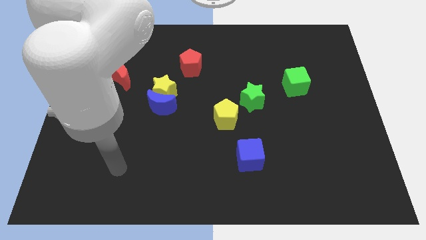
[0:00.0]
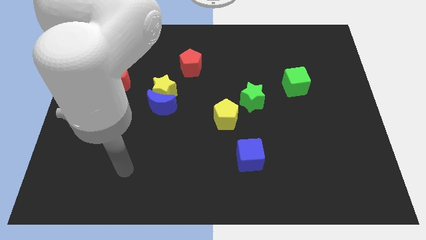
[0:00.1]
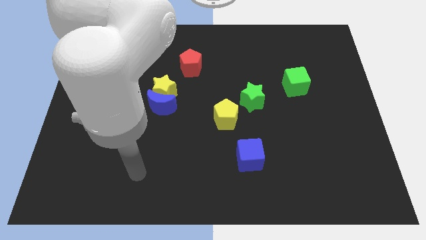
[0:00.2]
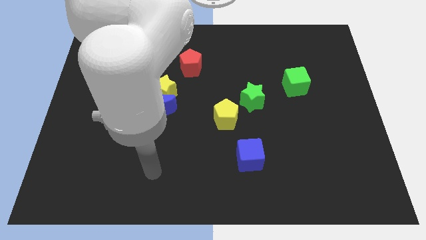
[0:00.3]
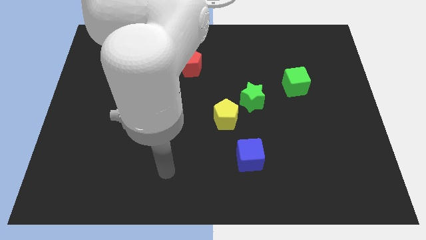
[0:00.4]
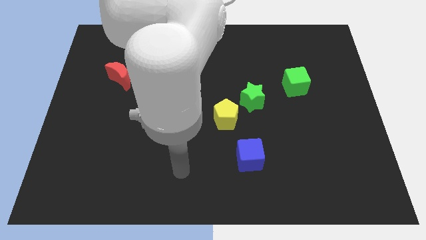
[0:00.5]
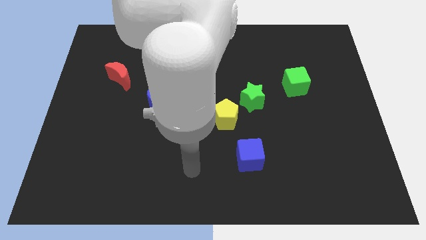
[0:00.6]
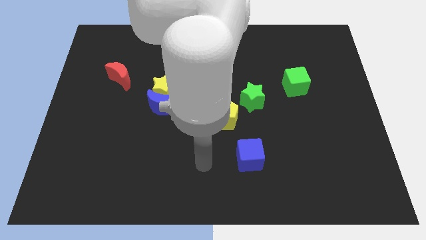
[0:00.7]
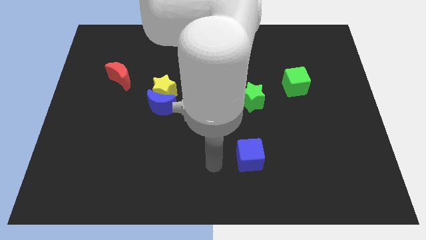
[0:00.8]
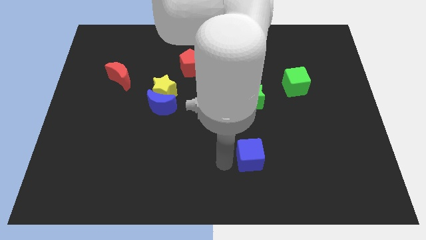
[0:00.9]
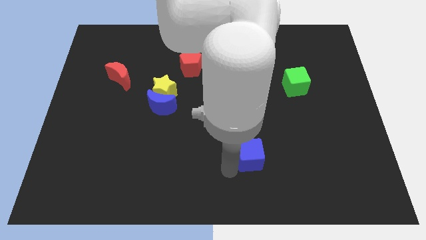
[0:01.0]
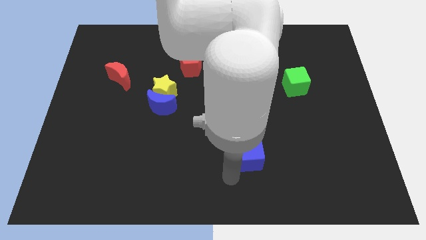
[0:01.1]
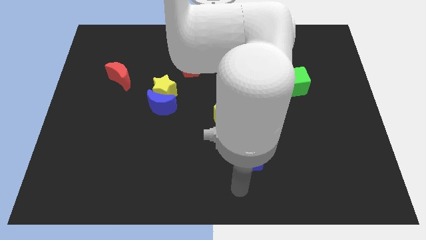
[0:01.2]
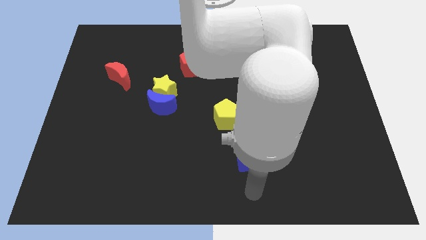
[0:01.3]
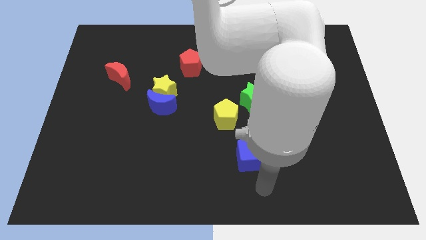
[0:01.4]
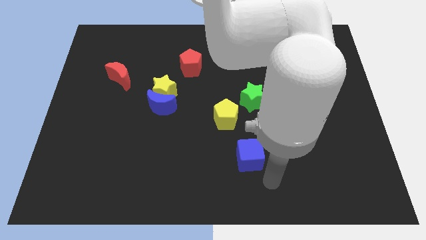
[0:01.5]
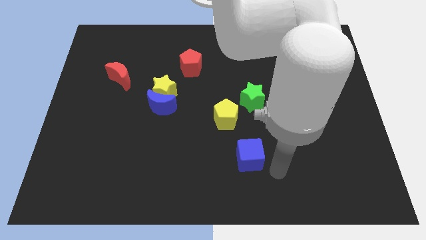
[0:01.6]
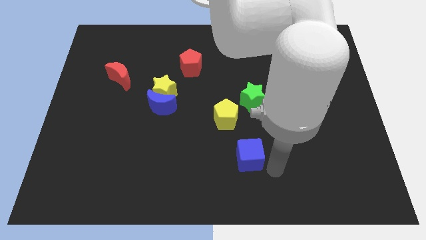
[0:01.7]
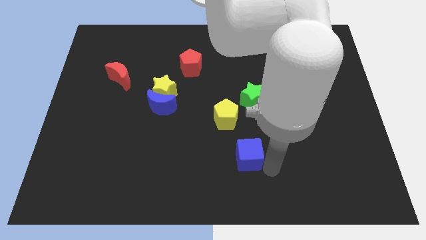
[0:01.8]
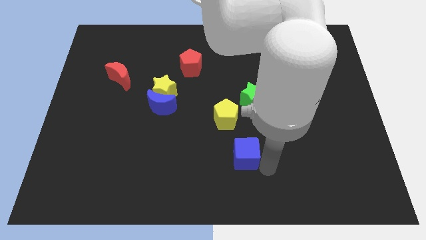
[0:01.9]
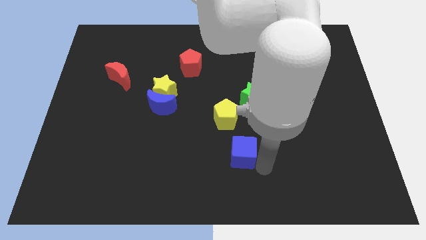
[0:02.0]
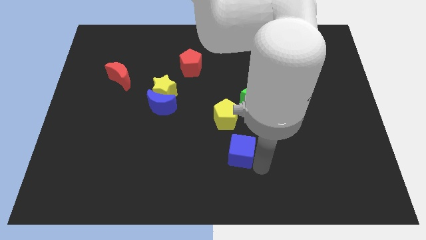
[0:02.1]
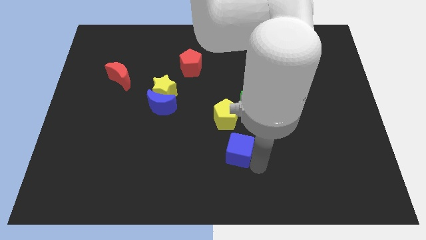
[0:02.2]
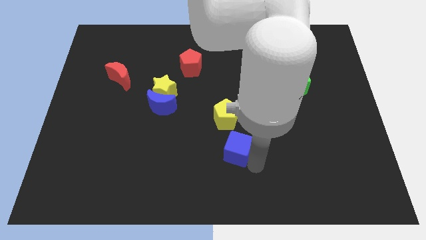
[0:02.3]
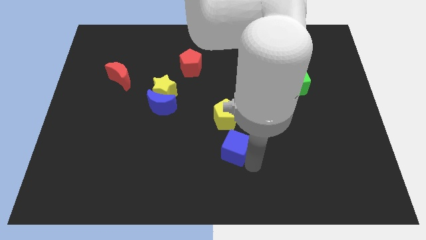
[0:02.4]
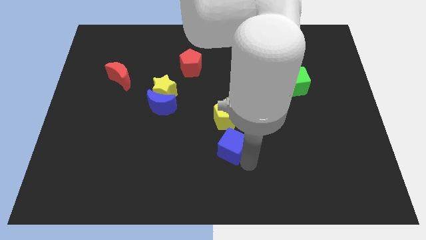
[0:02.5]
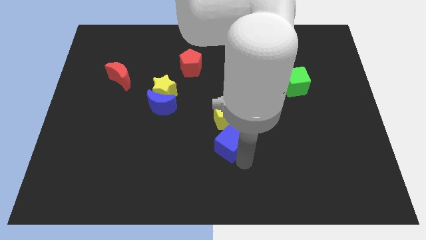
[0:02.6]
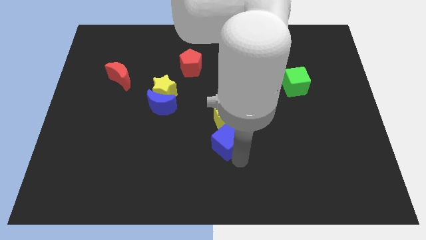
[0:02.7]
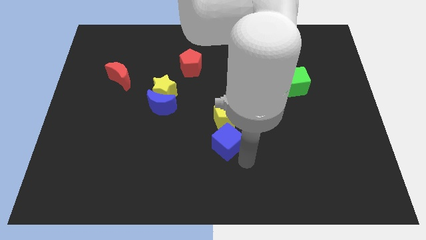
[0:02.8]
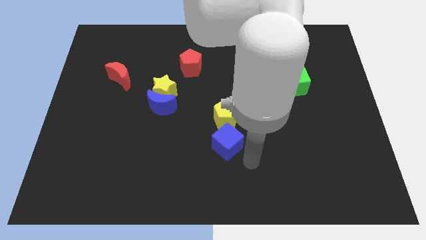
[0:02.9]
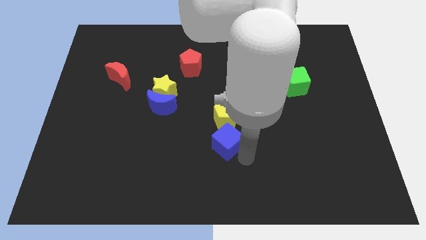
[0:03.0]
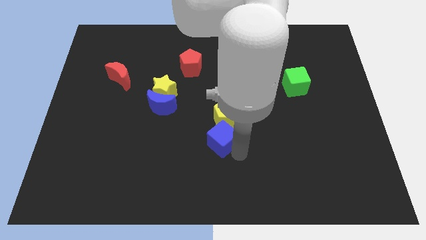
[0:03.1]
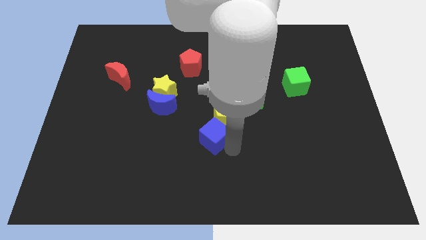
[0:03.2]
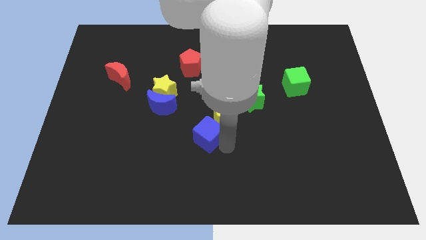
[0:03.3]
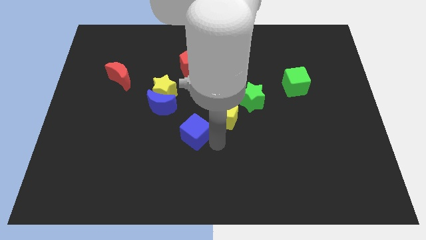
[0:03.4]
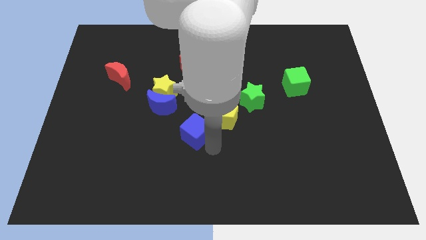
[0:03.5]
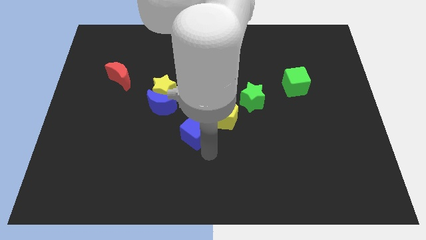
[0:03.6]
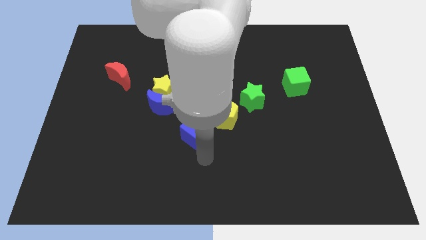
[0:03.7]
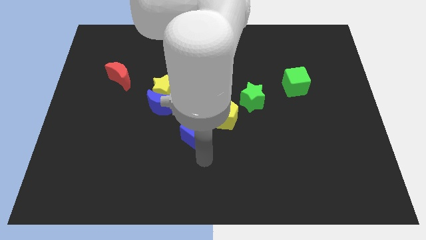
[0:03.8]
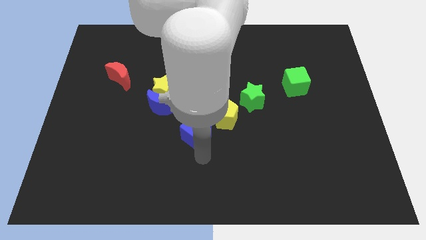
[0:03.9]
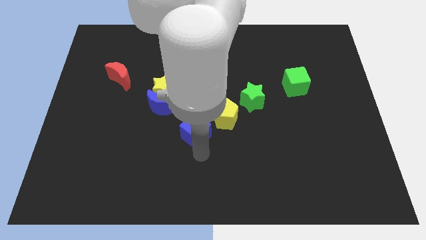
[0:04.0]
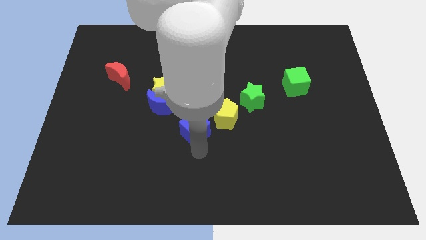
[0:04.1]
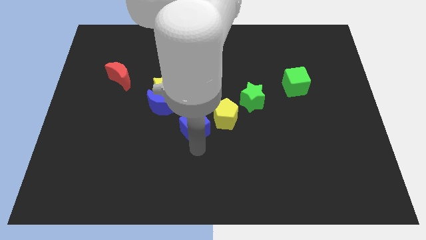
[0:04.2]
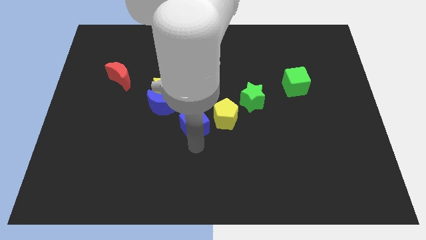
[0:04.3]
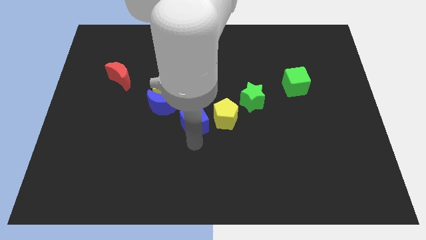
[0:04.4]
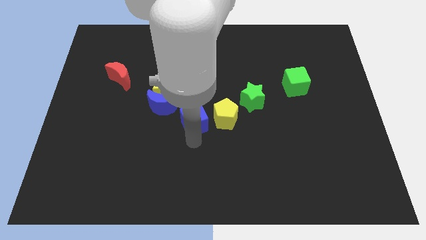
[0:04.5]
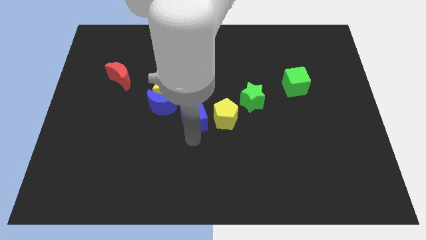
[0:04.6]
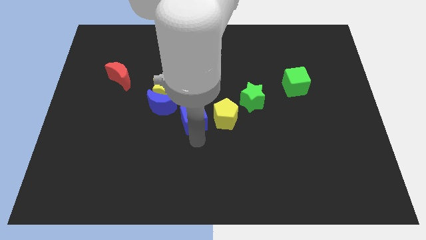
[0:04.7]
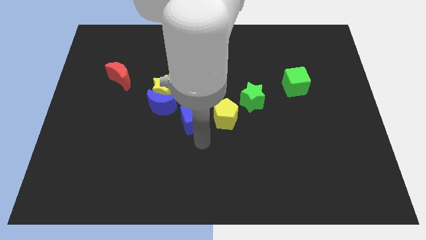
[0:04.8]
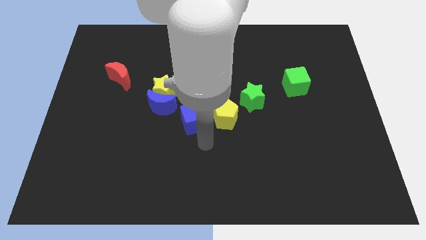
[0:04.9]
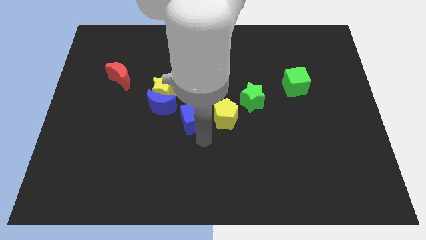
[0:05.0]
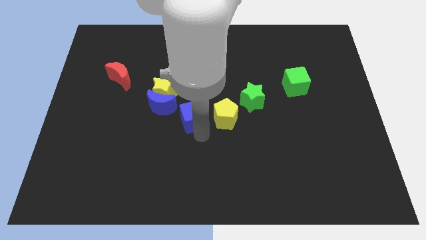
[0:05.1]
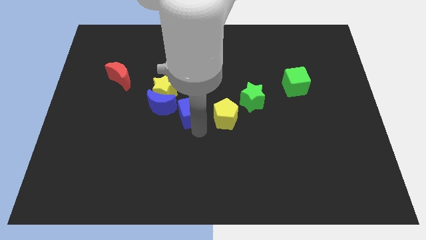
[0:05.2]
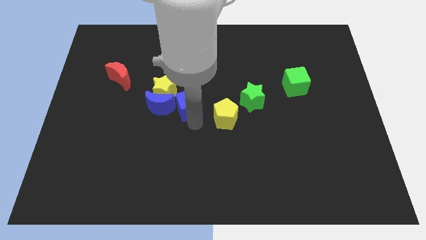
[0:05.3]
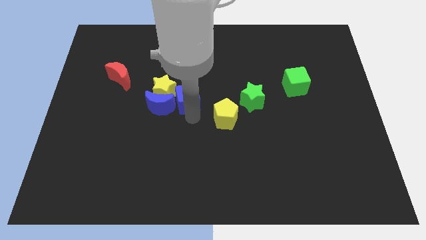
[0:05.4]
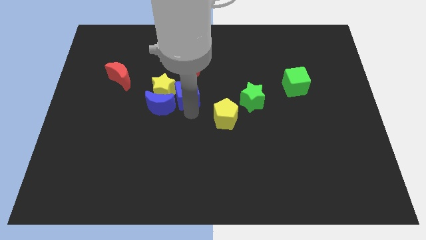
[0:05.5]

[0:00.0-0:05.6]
slide the blue cube to the yellow star

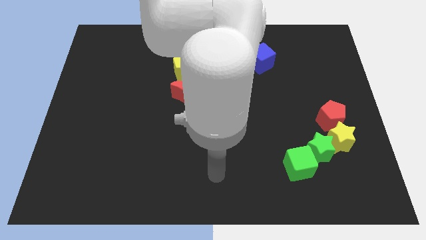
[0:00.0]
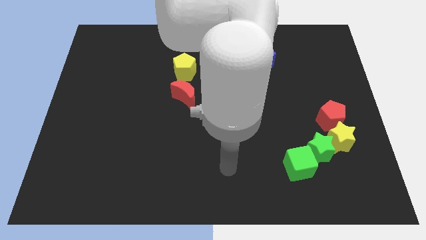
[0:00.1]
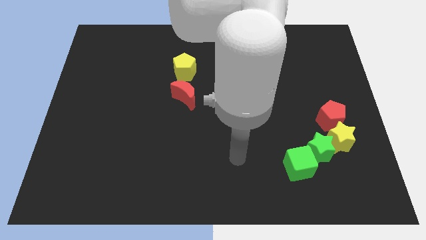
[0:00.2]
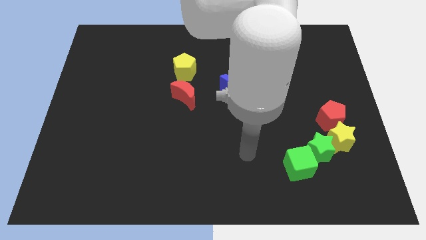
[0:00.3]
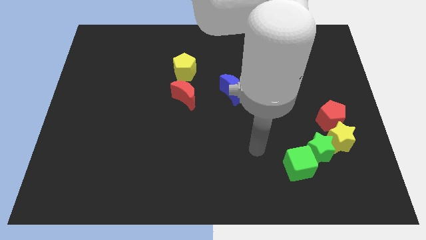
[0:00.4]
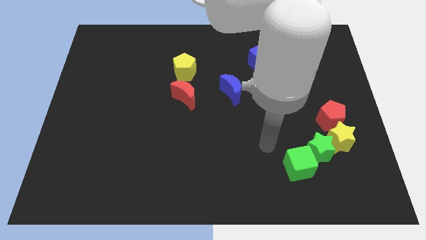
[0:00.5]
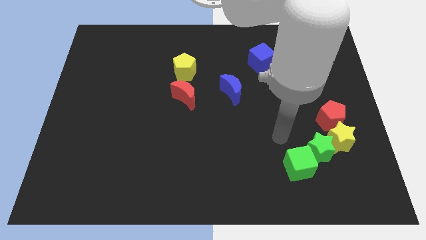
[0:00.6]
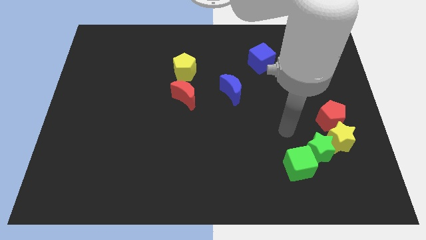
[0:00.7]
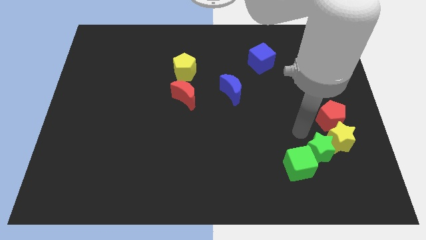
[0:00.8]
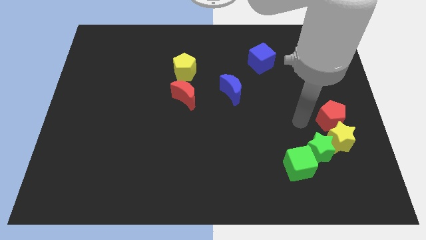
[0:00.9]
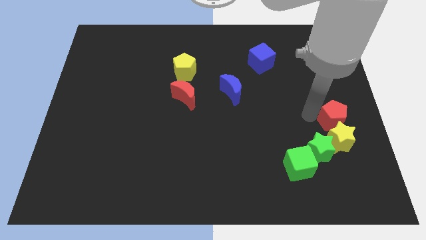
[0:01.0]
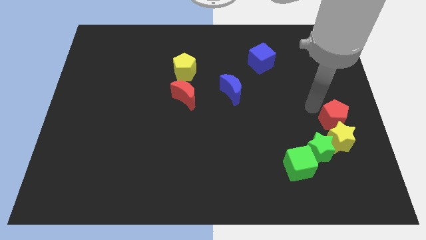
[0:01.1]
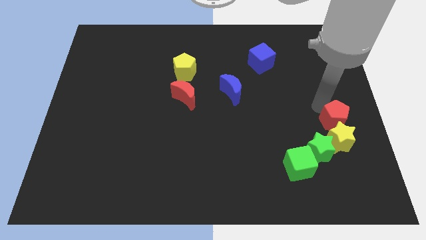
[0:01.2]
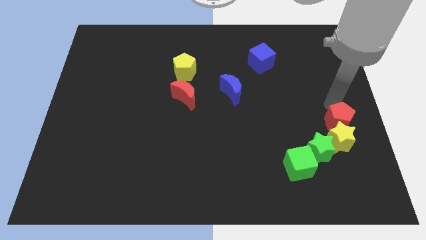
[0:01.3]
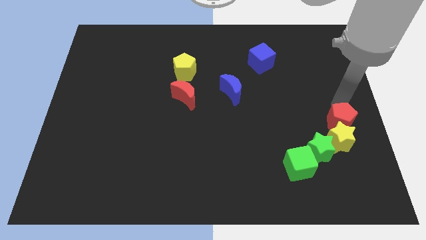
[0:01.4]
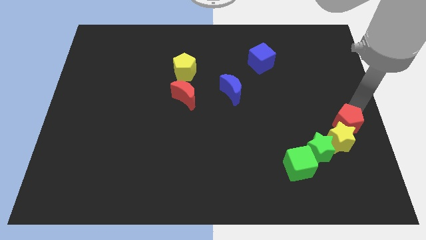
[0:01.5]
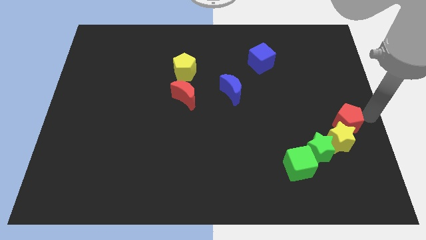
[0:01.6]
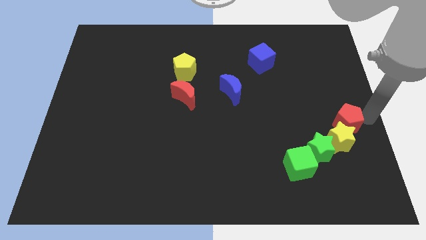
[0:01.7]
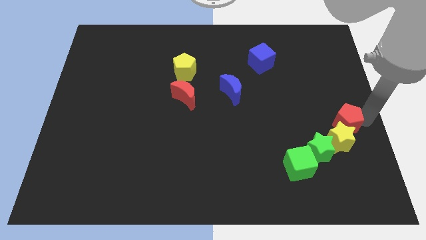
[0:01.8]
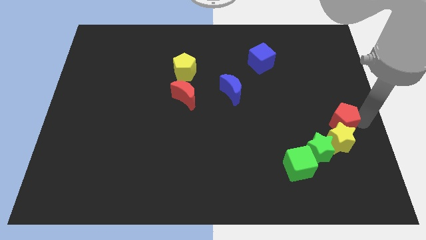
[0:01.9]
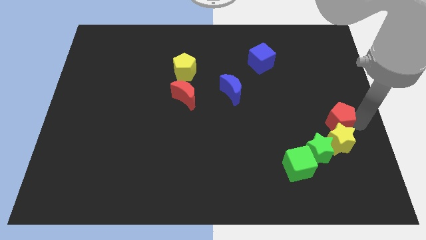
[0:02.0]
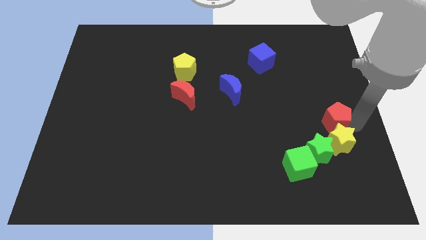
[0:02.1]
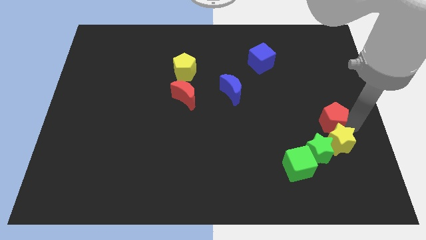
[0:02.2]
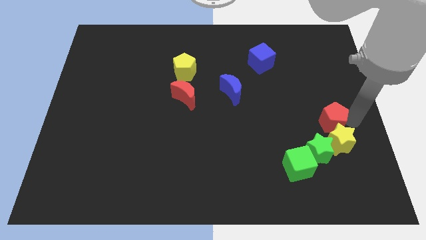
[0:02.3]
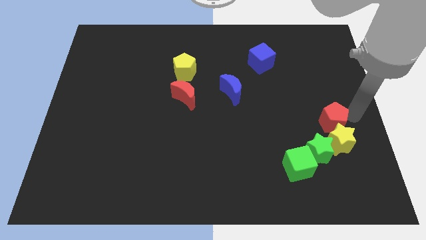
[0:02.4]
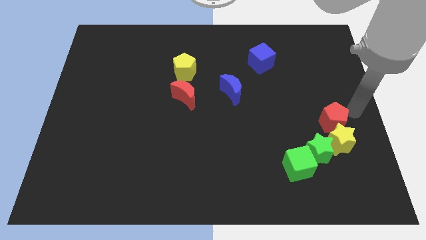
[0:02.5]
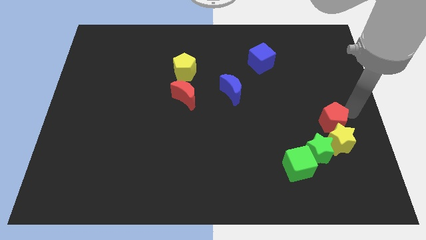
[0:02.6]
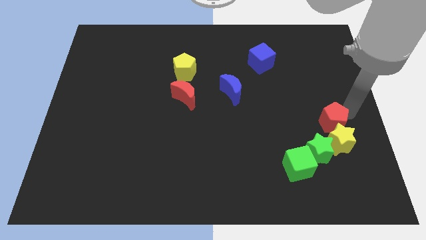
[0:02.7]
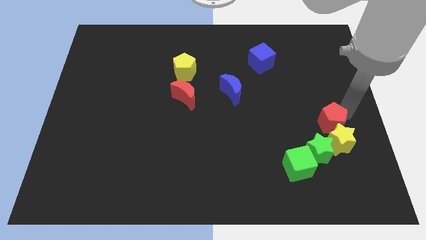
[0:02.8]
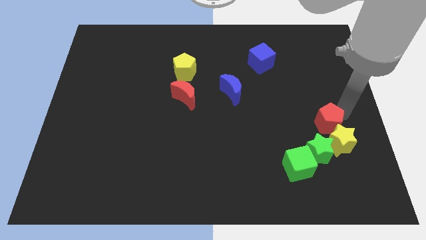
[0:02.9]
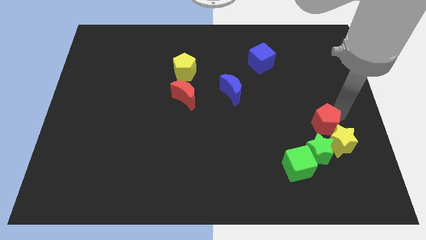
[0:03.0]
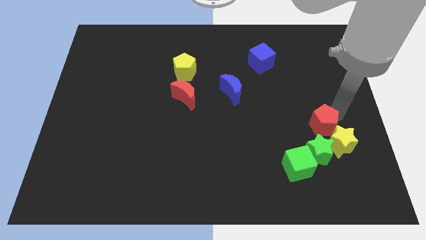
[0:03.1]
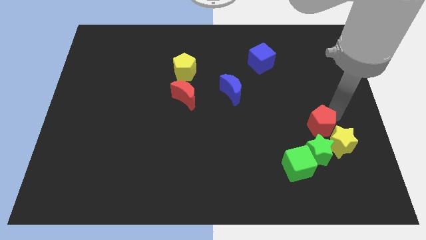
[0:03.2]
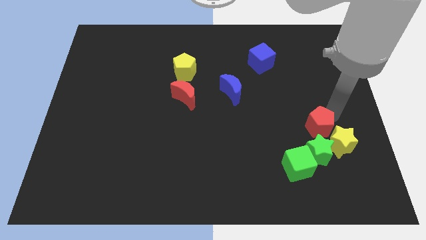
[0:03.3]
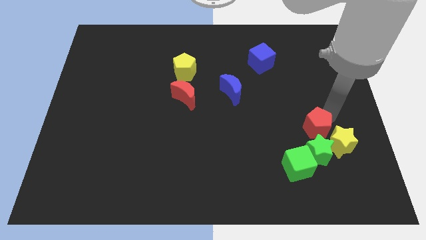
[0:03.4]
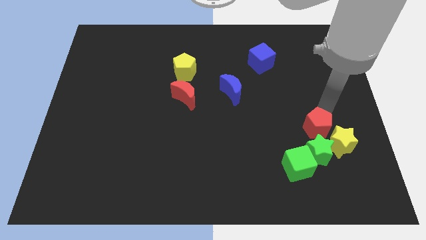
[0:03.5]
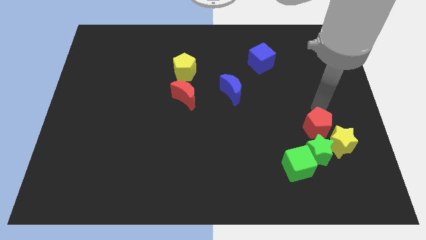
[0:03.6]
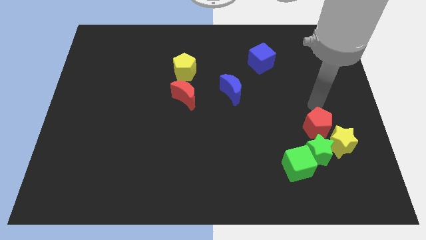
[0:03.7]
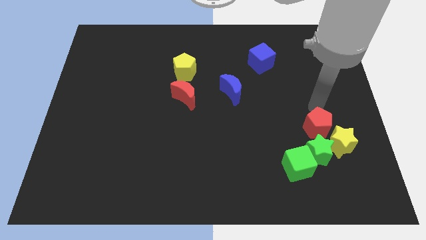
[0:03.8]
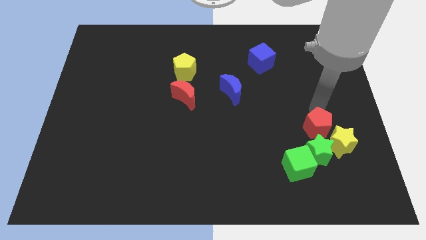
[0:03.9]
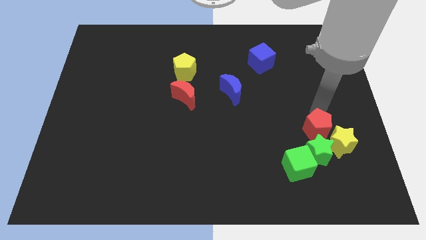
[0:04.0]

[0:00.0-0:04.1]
put the red pentagon close to the green star
